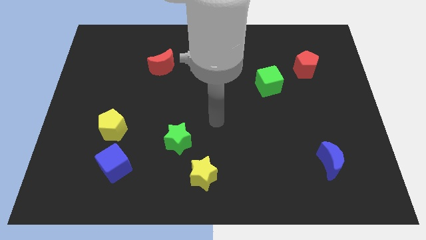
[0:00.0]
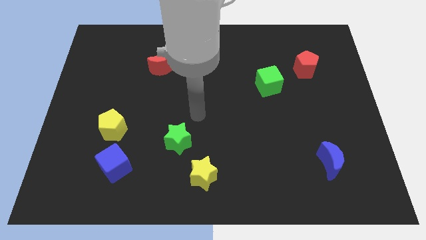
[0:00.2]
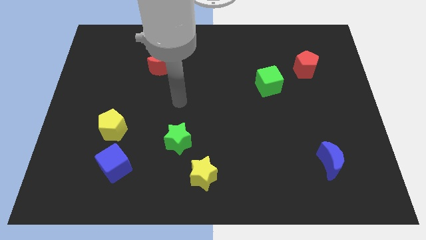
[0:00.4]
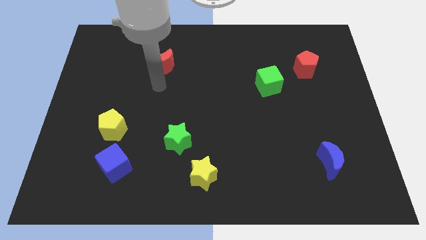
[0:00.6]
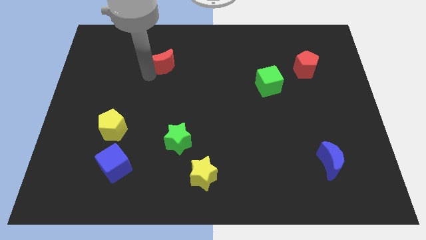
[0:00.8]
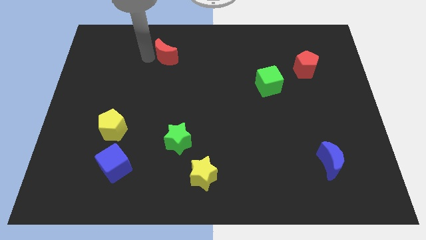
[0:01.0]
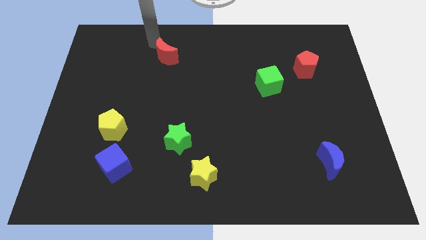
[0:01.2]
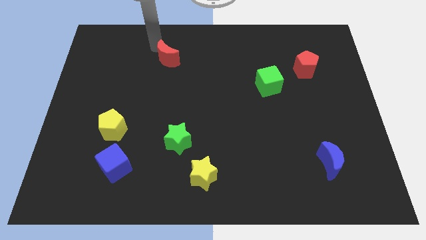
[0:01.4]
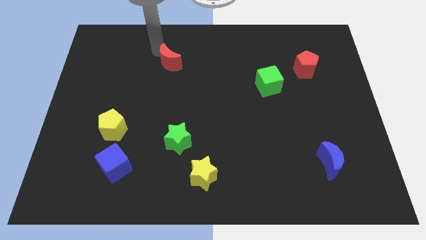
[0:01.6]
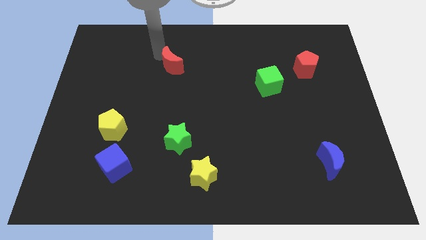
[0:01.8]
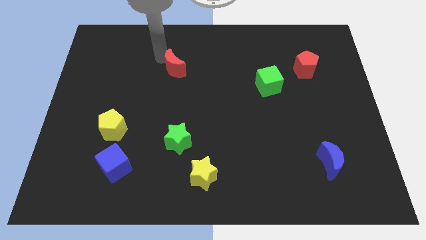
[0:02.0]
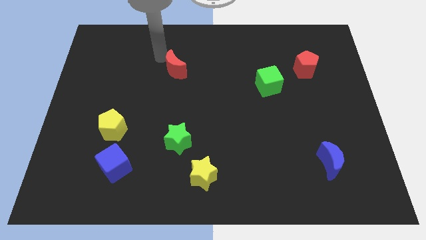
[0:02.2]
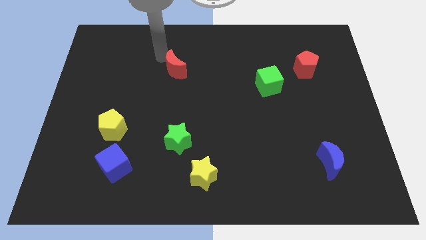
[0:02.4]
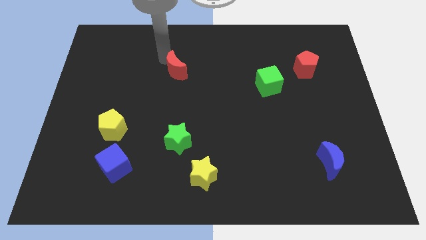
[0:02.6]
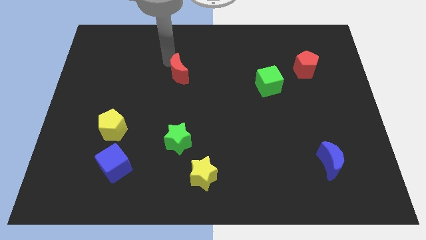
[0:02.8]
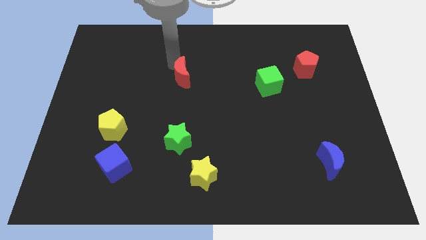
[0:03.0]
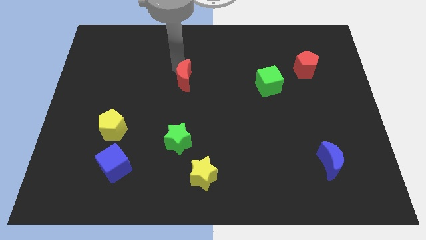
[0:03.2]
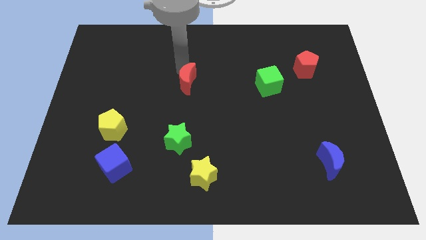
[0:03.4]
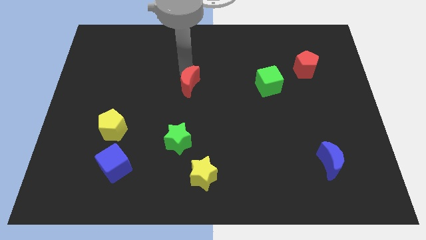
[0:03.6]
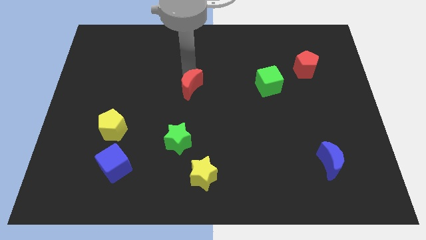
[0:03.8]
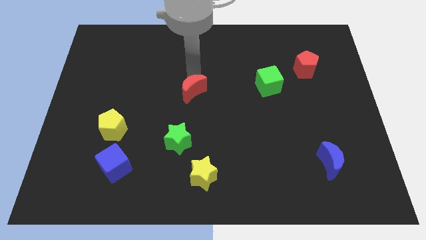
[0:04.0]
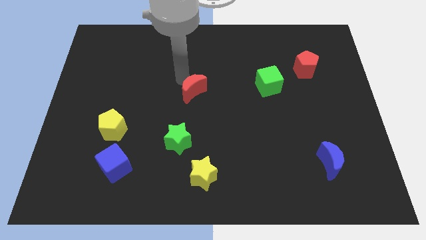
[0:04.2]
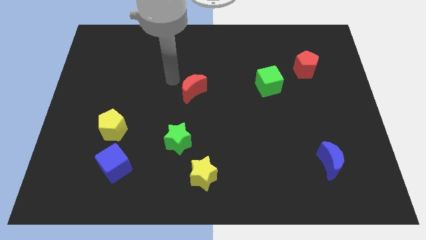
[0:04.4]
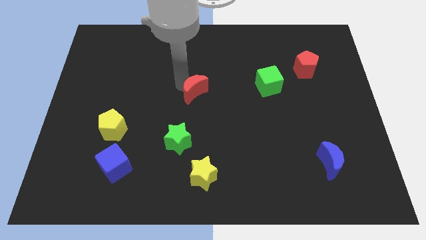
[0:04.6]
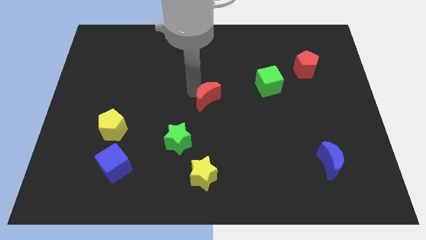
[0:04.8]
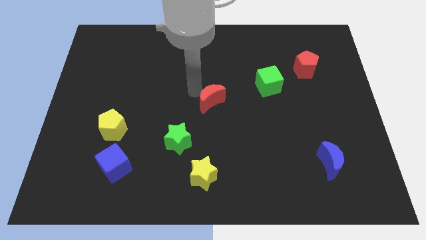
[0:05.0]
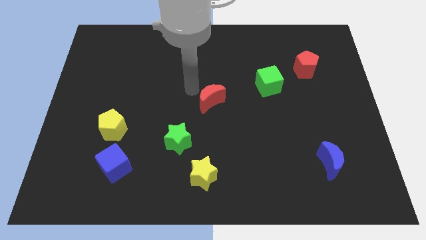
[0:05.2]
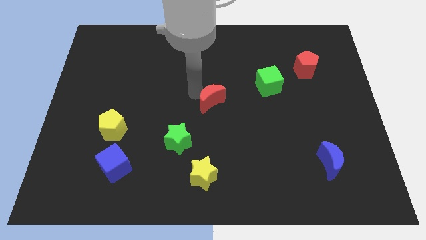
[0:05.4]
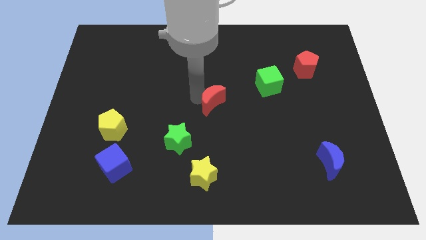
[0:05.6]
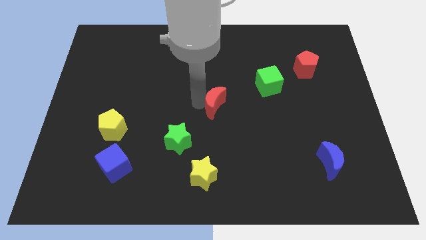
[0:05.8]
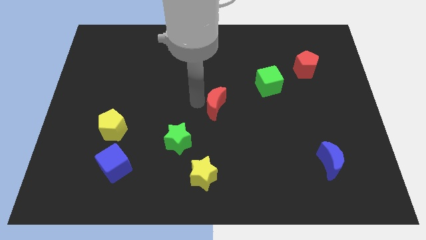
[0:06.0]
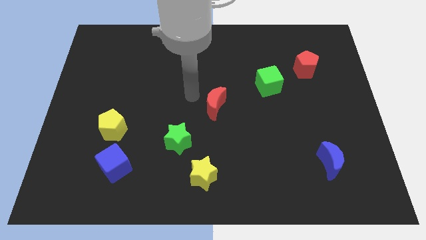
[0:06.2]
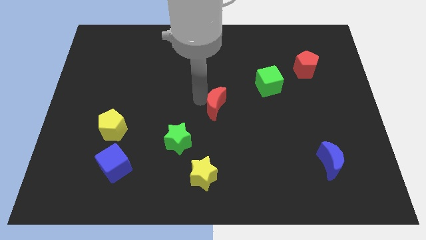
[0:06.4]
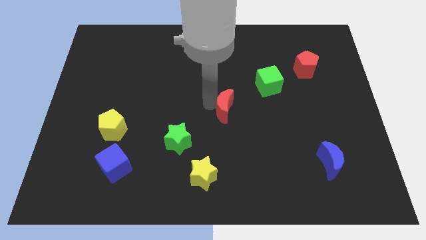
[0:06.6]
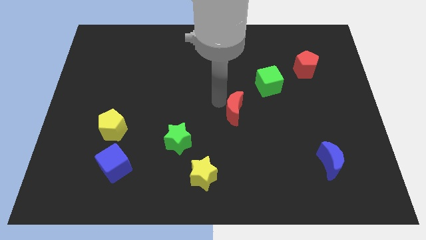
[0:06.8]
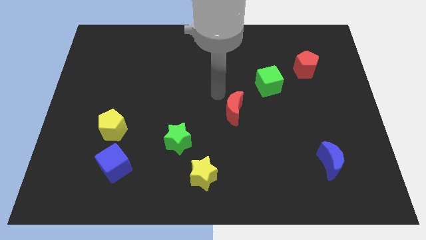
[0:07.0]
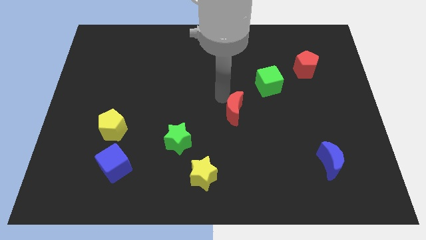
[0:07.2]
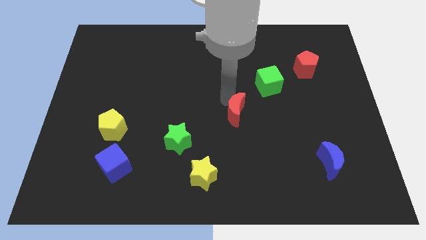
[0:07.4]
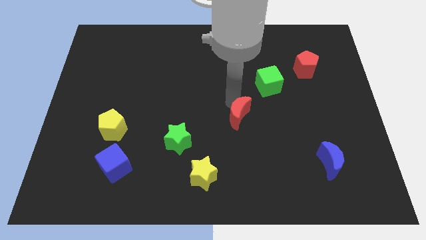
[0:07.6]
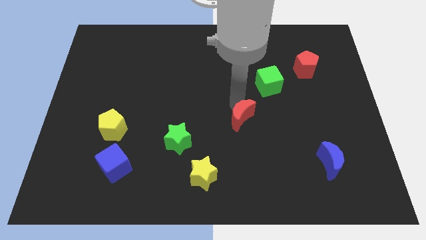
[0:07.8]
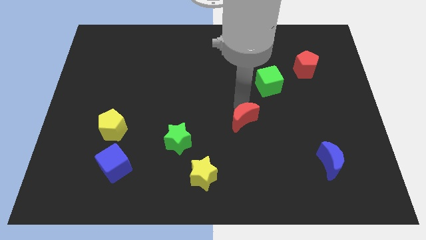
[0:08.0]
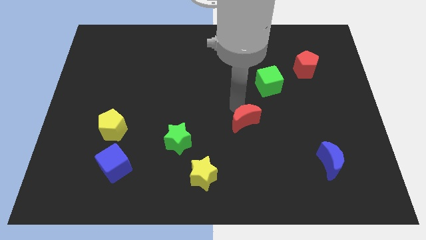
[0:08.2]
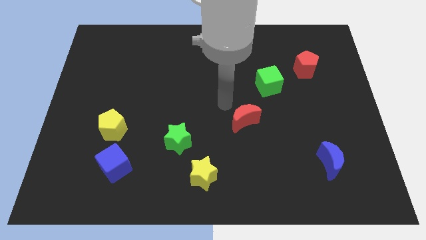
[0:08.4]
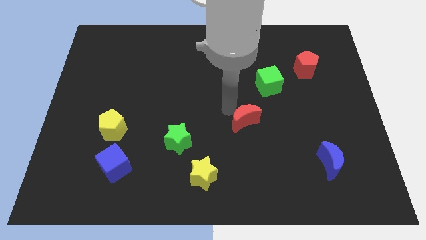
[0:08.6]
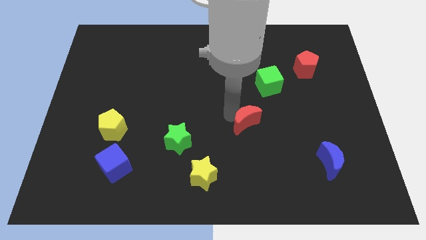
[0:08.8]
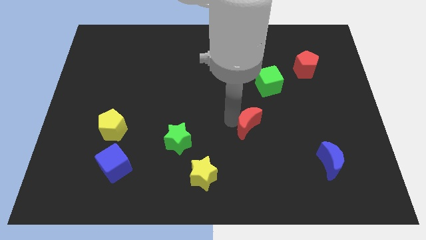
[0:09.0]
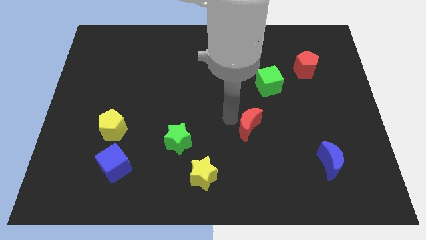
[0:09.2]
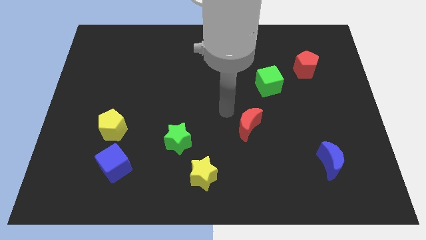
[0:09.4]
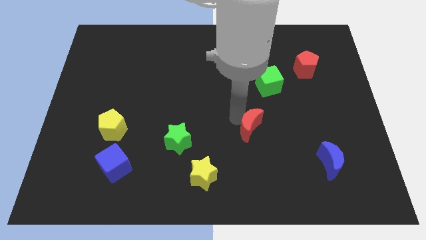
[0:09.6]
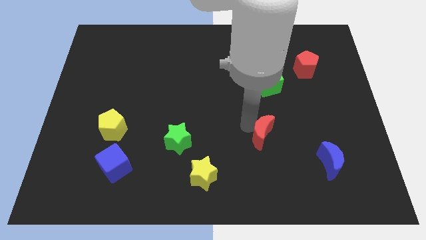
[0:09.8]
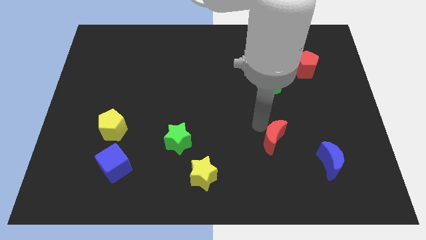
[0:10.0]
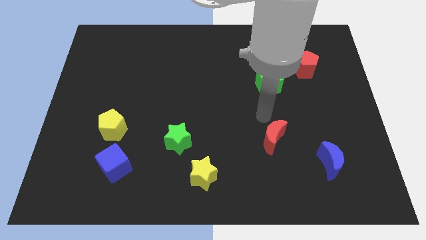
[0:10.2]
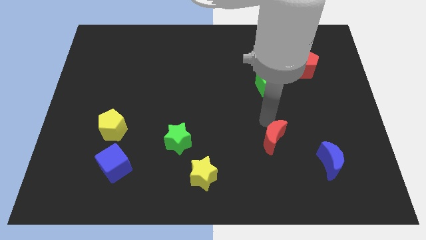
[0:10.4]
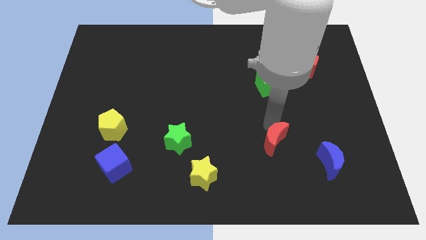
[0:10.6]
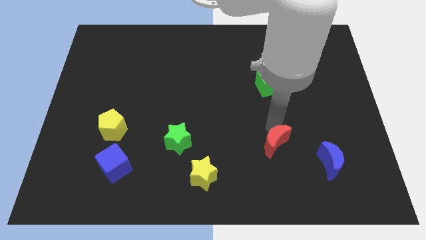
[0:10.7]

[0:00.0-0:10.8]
slide the red moon to the left side of the blue moon

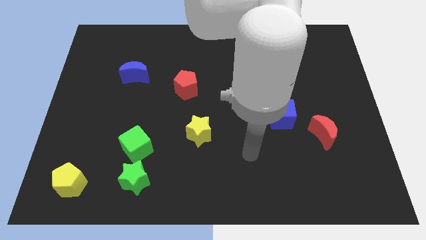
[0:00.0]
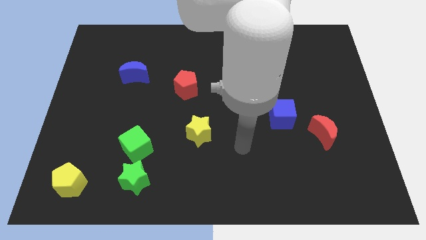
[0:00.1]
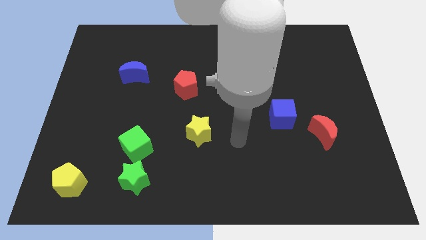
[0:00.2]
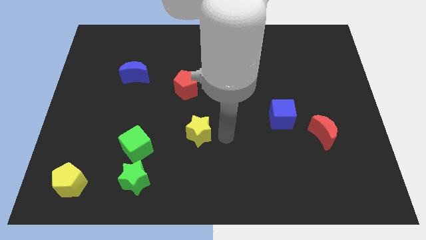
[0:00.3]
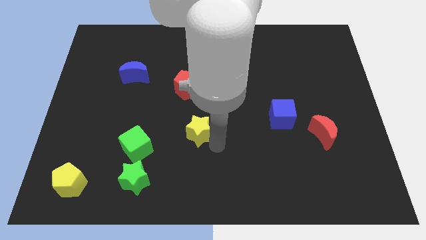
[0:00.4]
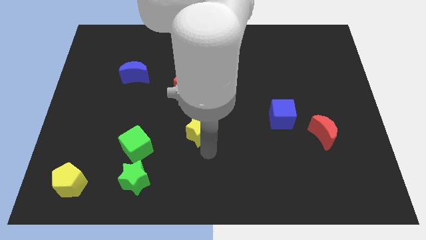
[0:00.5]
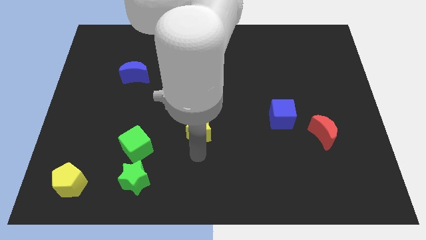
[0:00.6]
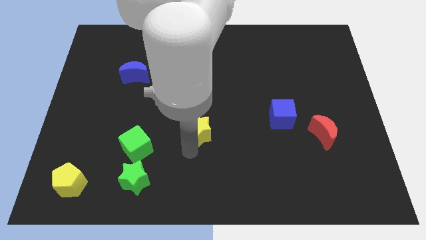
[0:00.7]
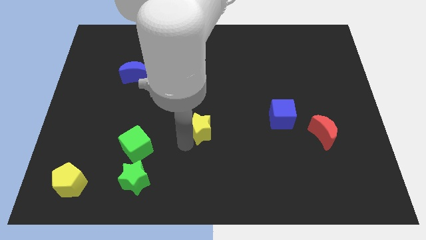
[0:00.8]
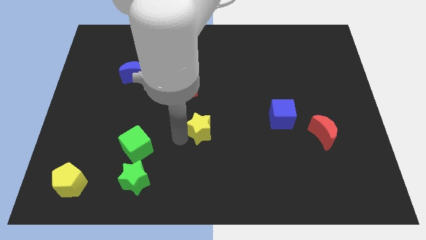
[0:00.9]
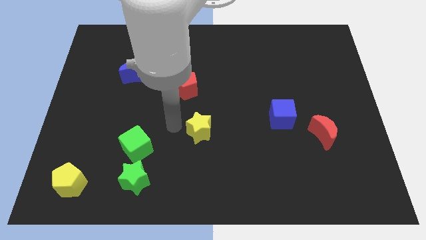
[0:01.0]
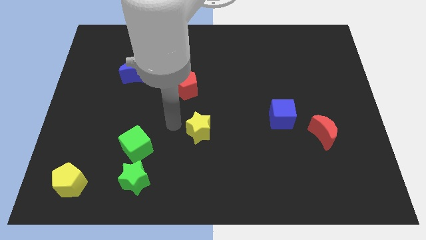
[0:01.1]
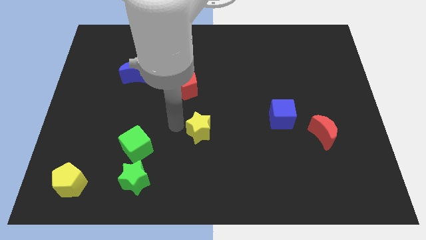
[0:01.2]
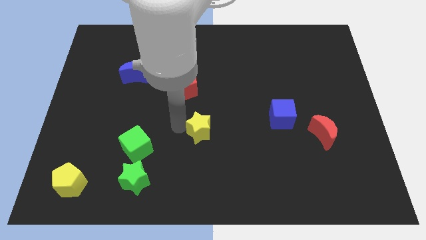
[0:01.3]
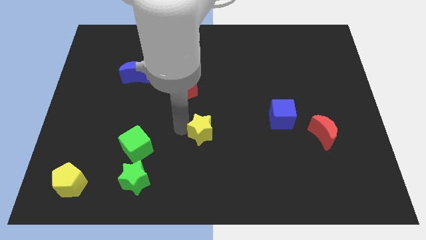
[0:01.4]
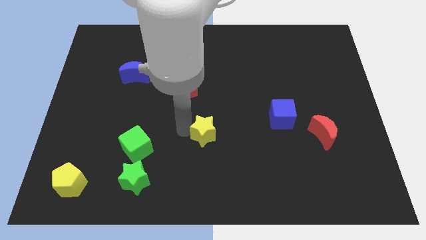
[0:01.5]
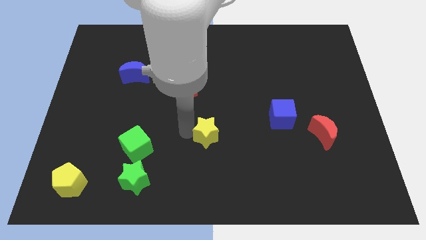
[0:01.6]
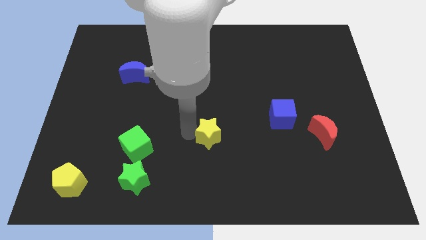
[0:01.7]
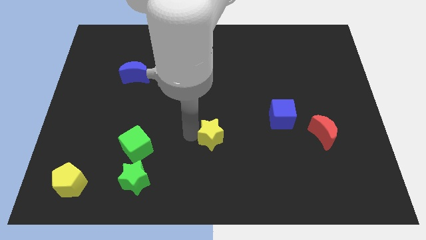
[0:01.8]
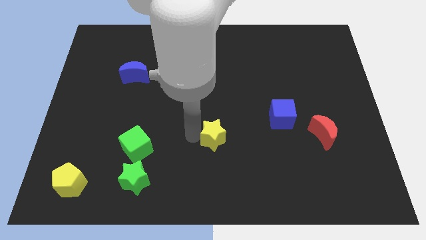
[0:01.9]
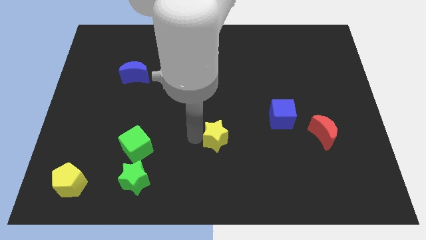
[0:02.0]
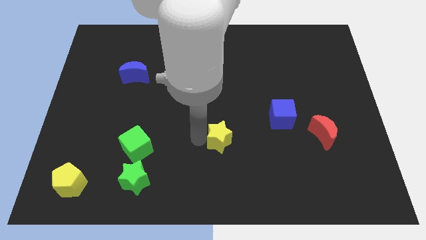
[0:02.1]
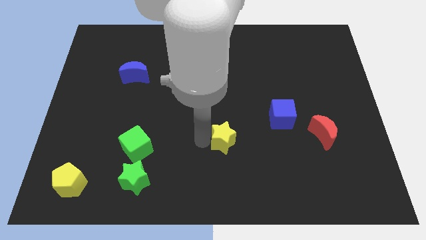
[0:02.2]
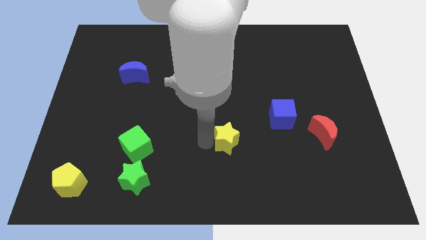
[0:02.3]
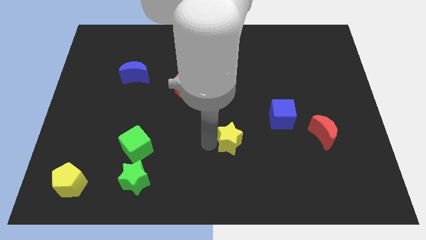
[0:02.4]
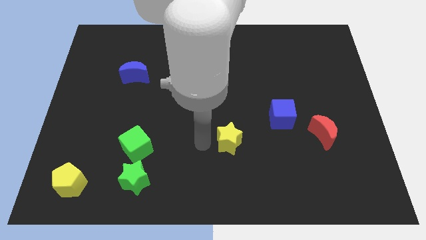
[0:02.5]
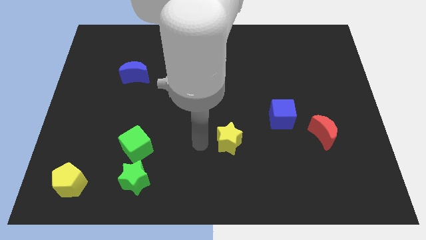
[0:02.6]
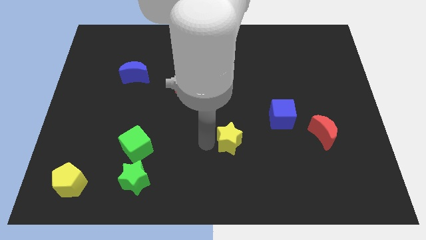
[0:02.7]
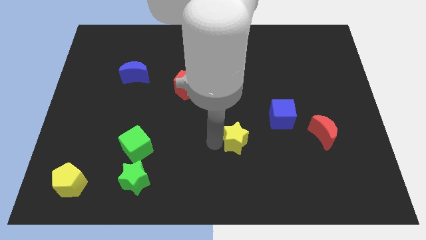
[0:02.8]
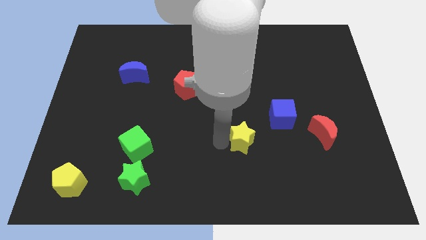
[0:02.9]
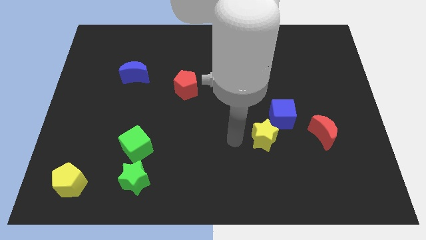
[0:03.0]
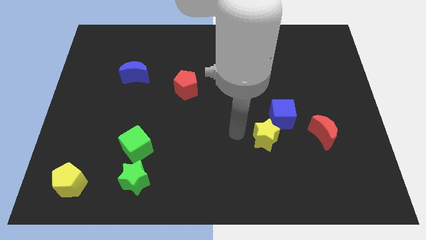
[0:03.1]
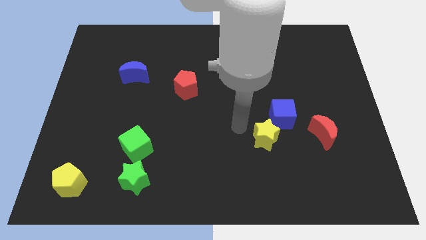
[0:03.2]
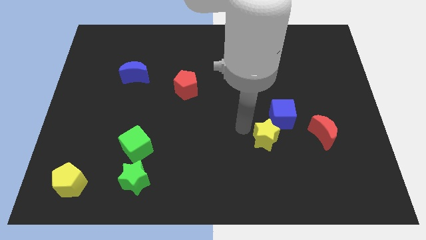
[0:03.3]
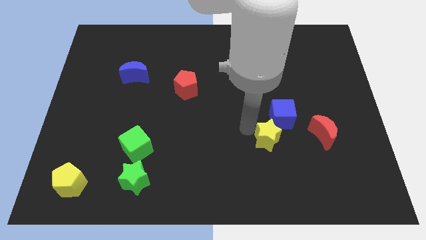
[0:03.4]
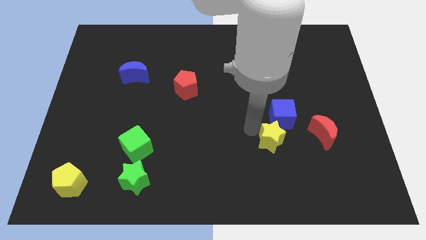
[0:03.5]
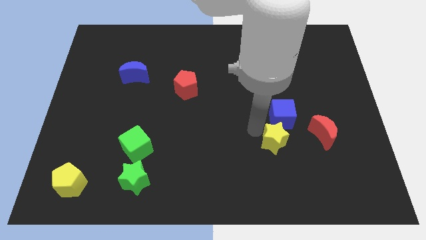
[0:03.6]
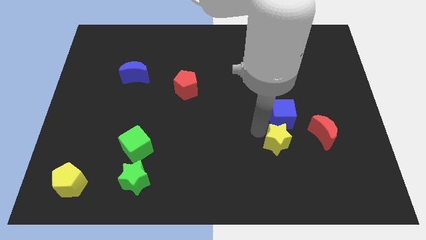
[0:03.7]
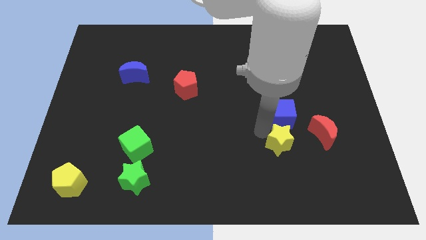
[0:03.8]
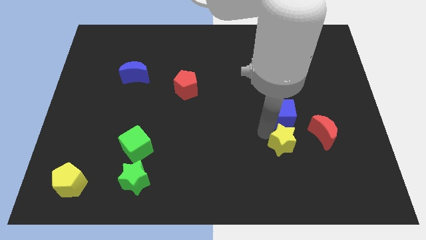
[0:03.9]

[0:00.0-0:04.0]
move the yellow star to the bottom left of the red moon
